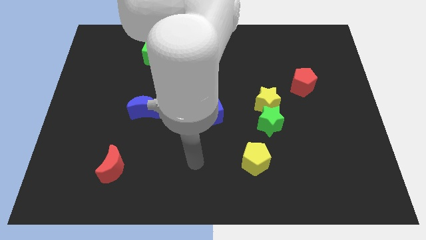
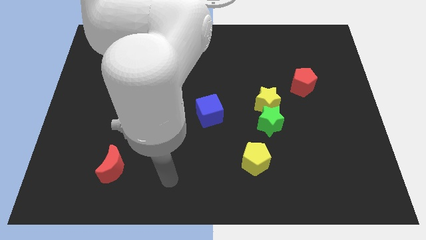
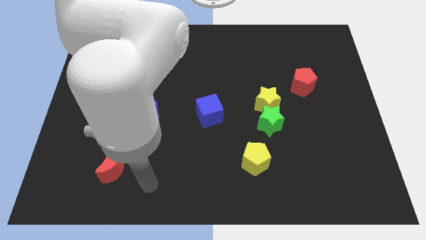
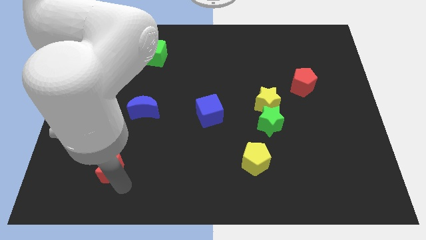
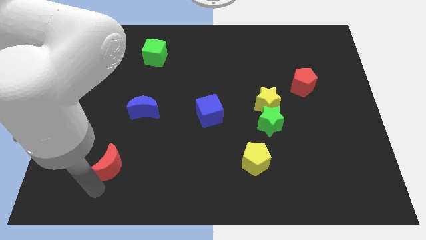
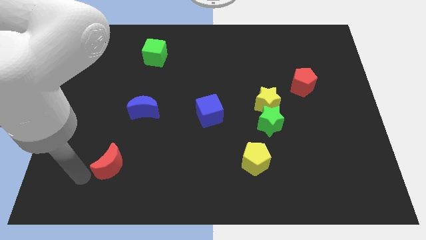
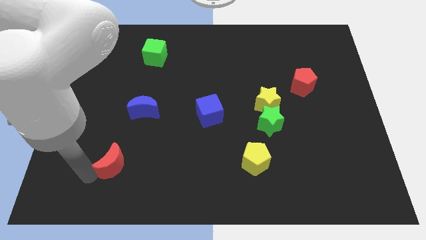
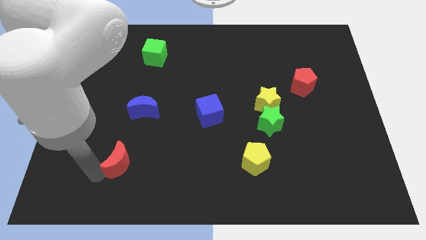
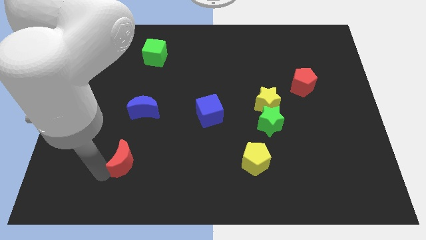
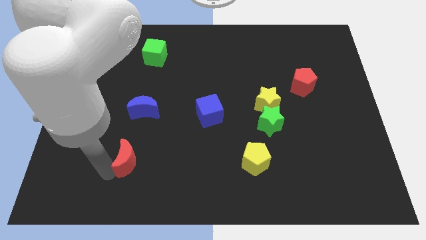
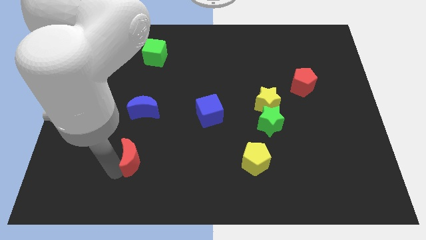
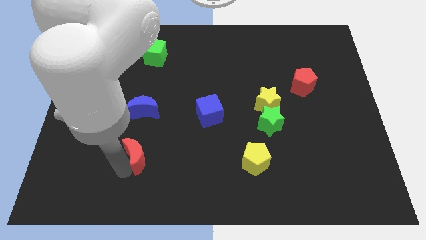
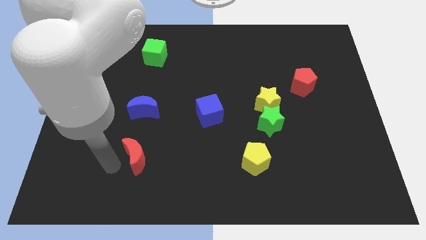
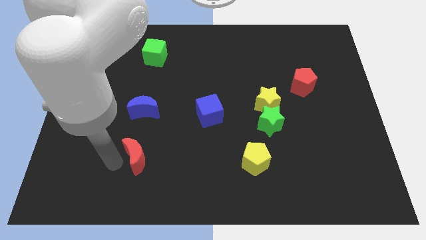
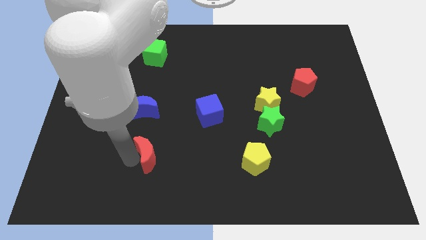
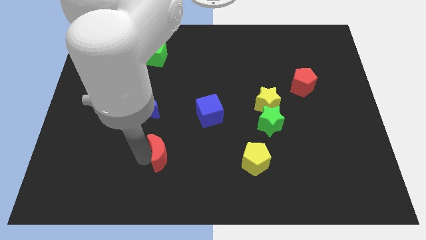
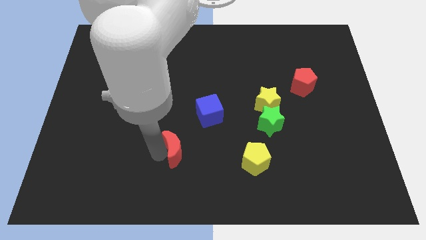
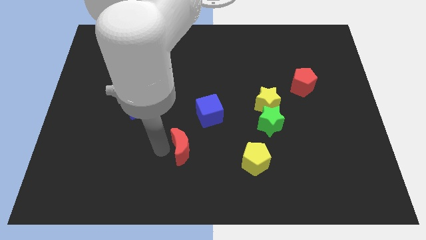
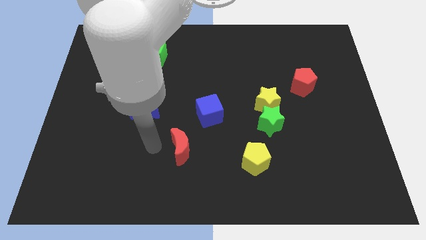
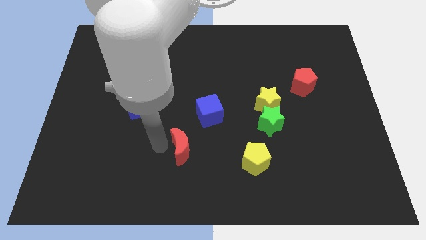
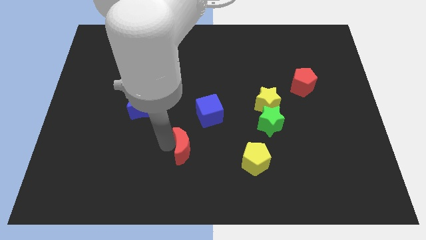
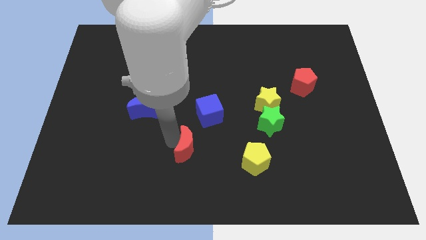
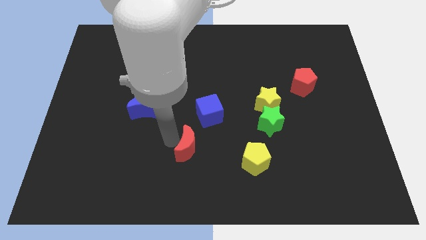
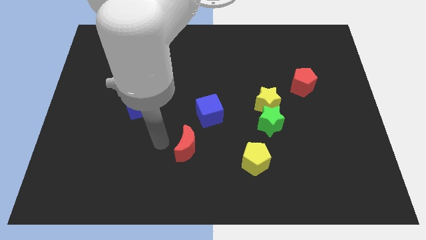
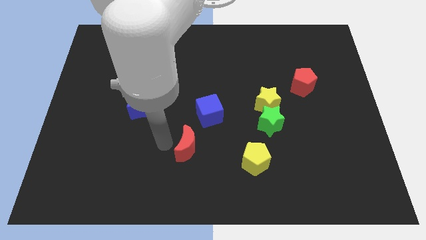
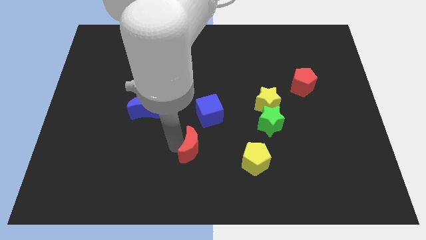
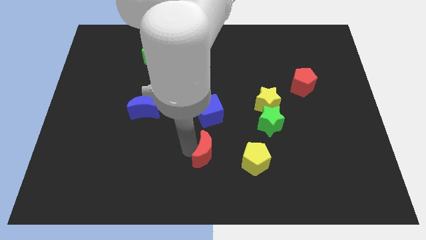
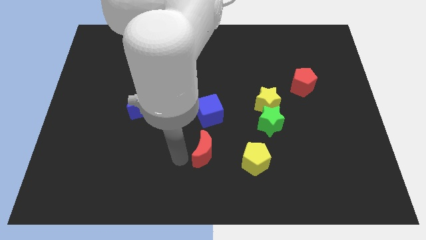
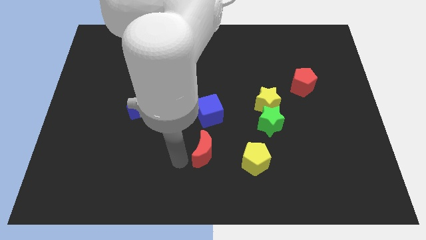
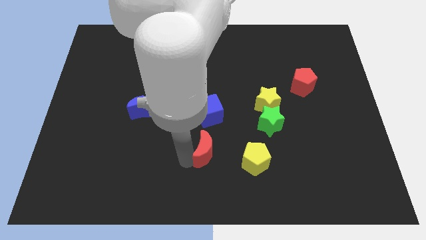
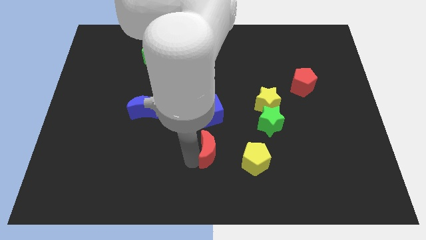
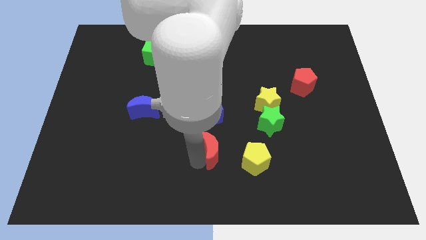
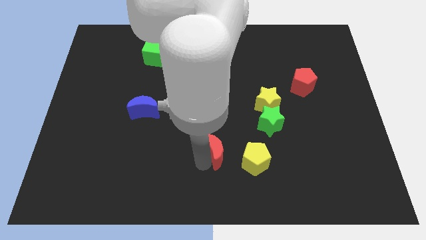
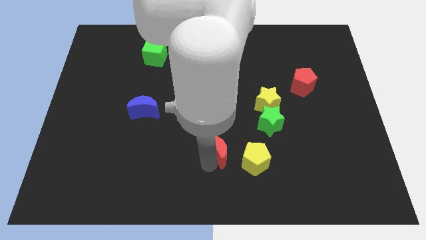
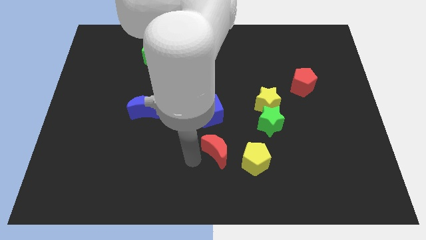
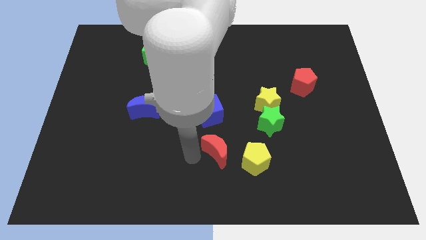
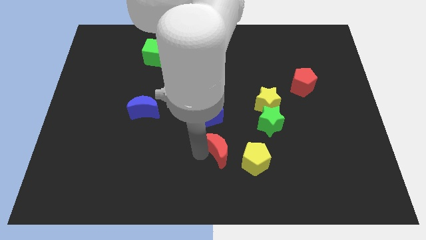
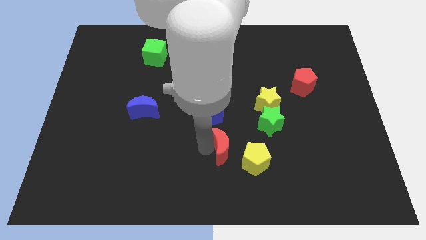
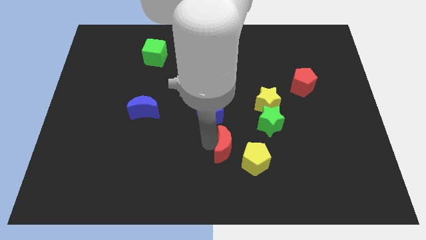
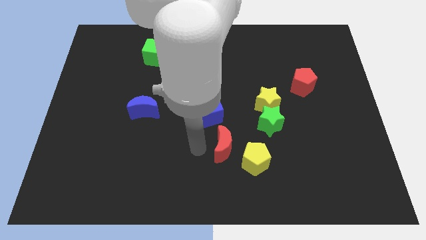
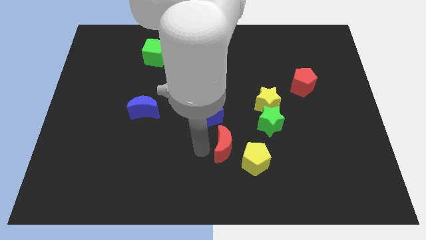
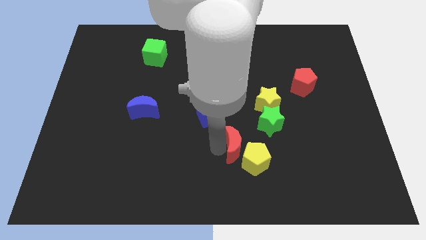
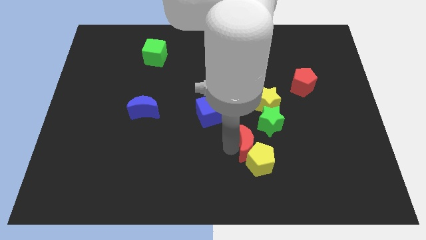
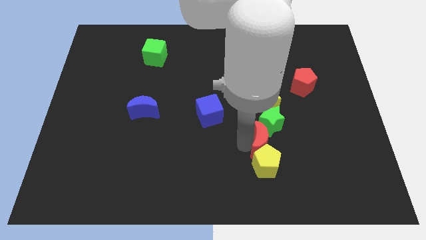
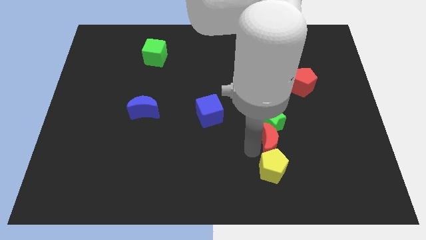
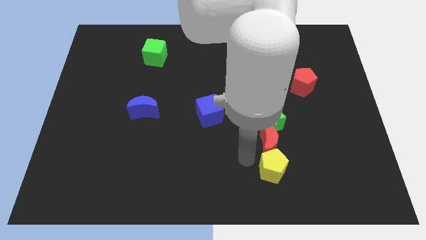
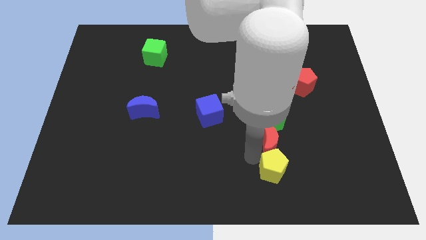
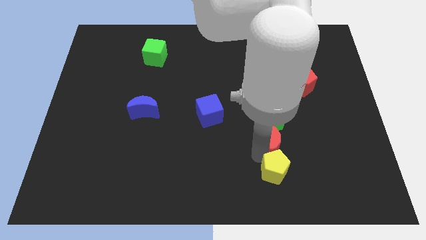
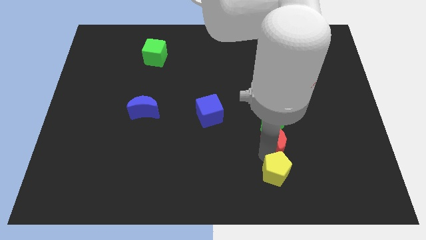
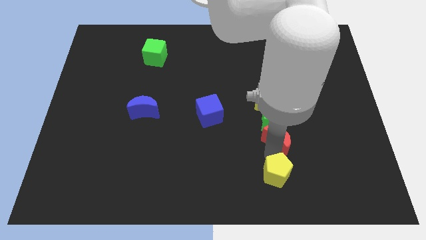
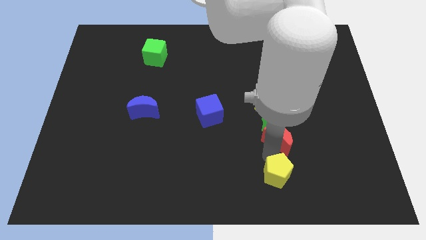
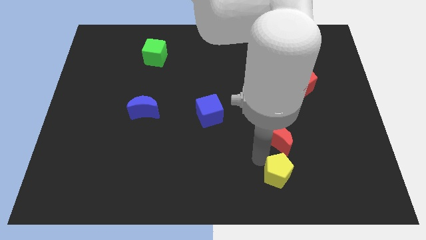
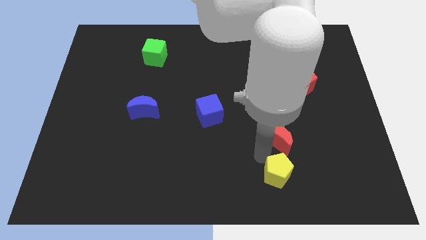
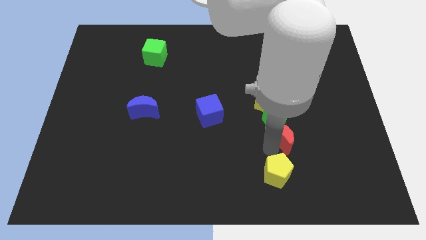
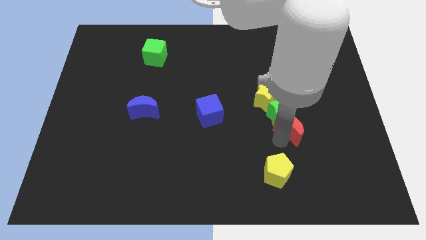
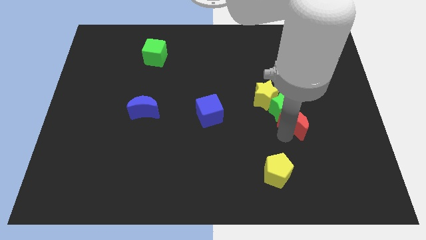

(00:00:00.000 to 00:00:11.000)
move the red moon to the bottom of the red pentagon

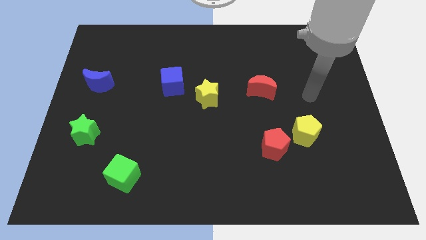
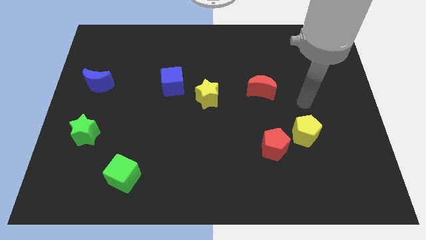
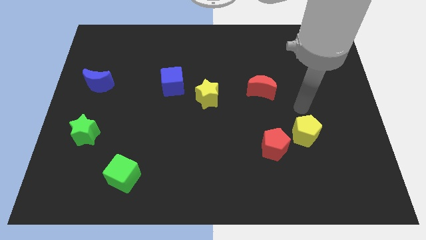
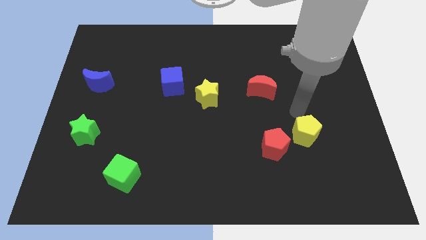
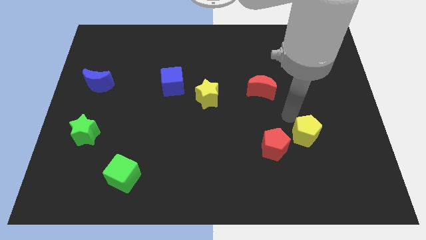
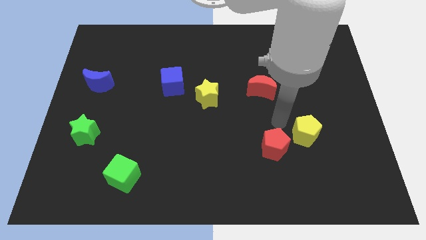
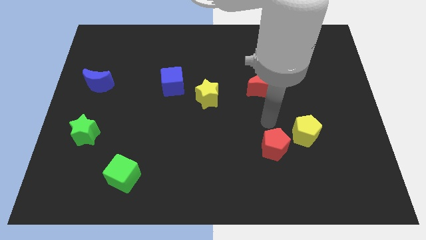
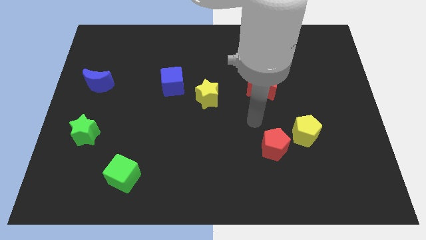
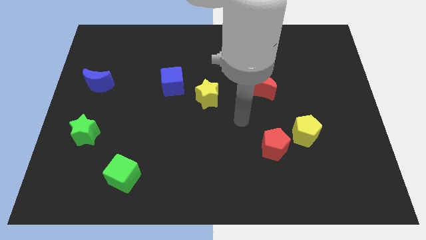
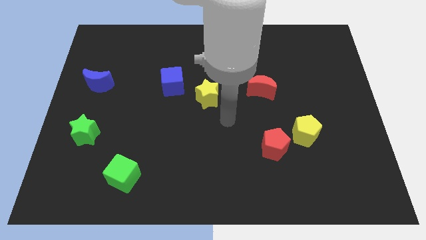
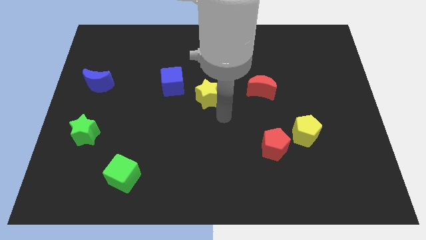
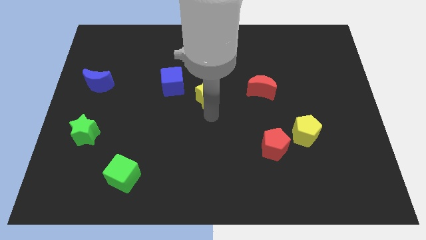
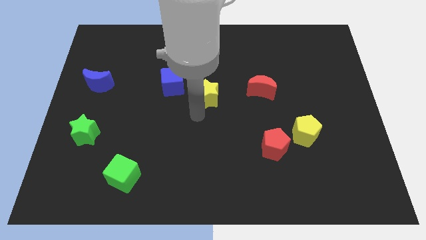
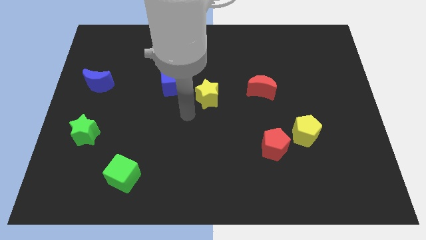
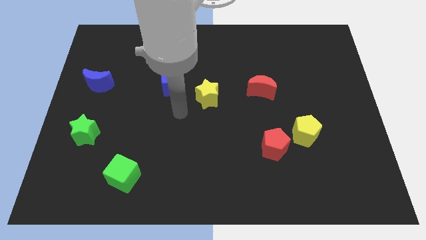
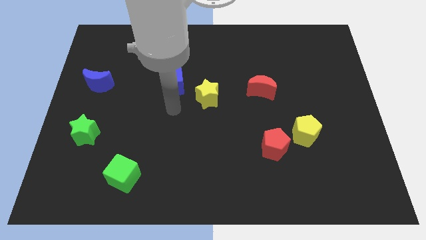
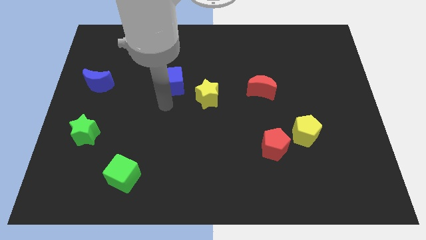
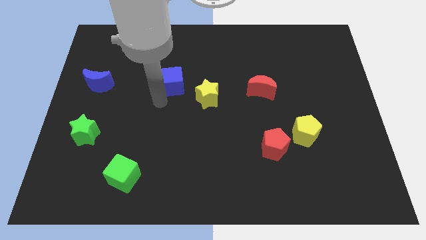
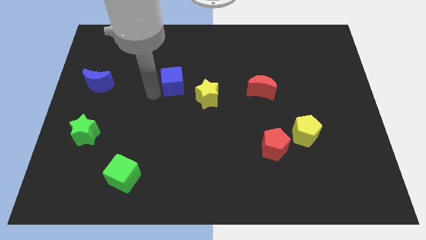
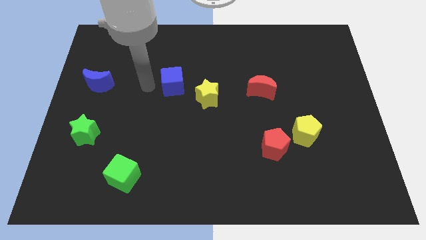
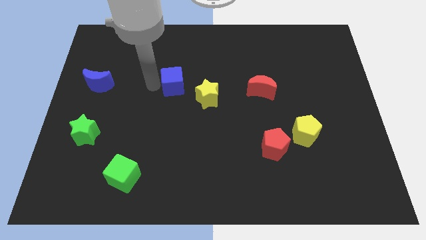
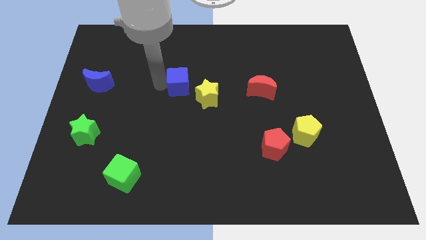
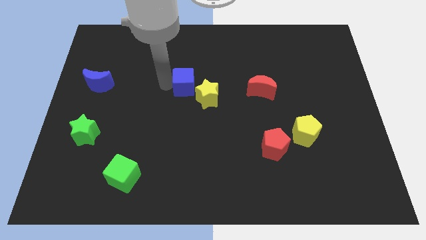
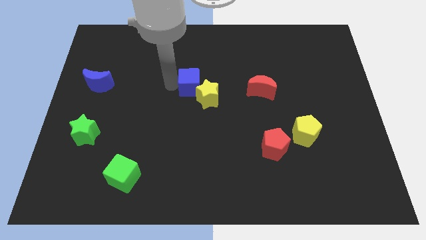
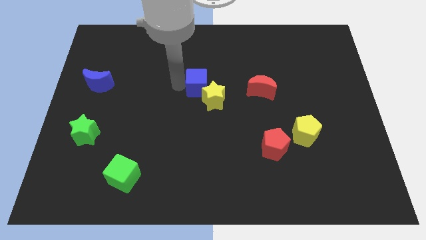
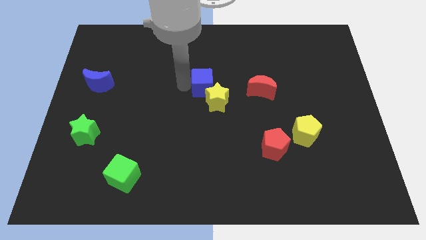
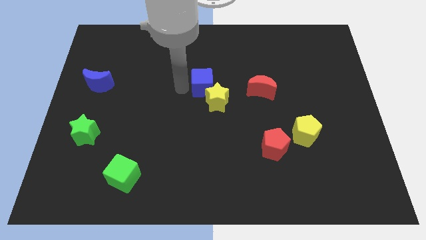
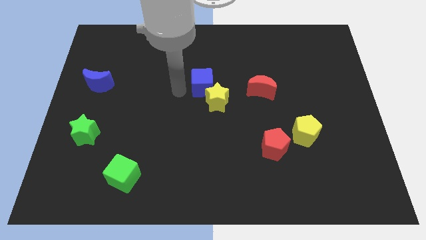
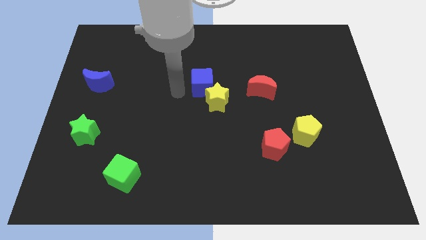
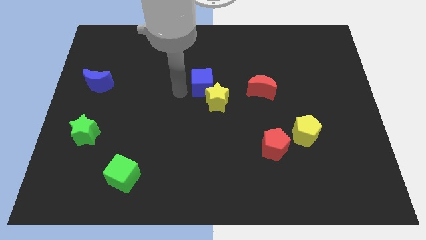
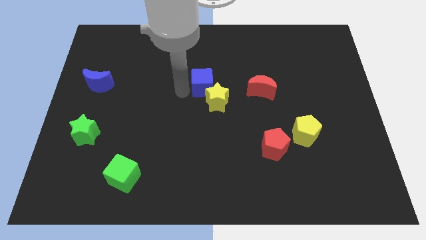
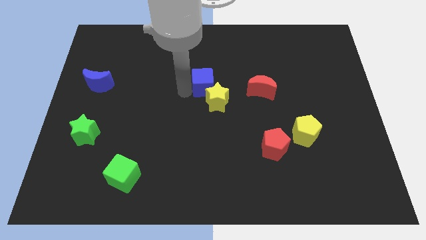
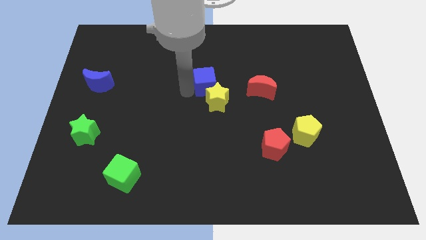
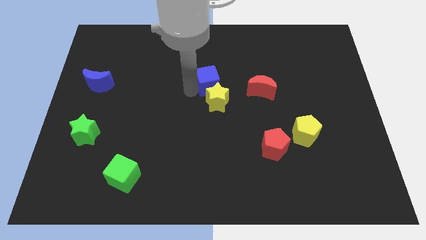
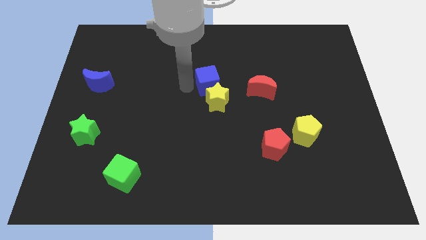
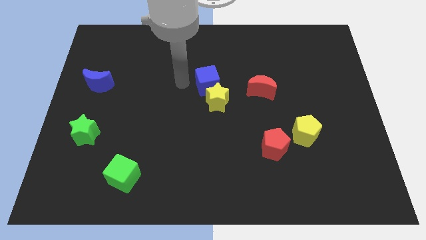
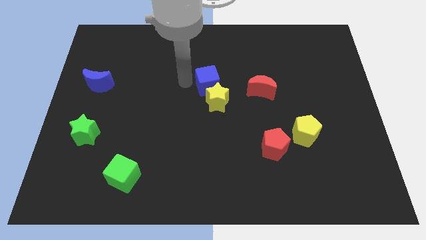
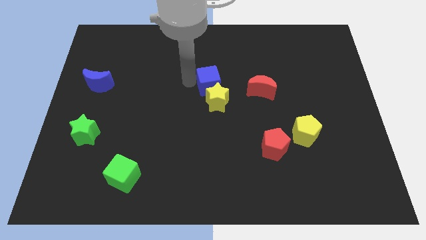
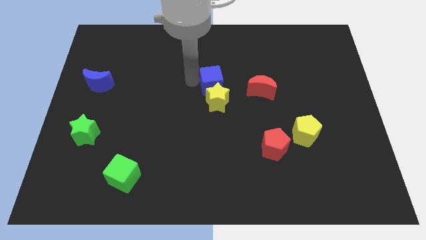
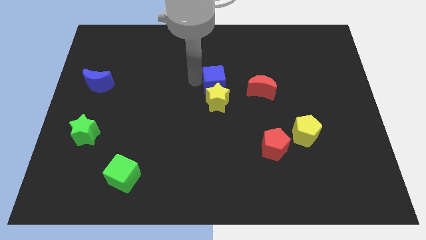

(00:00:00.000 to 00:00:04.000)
push the blue cube to the top right side of the yellow star
